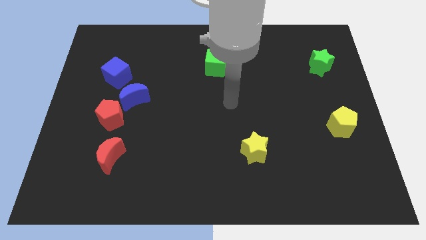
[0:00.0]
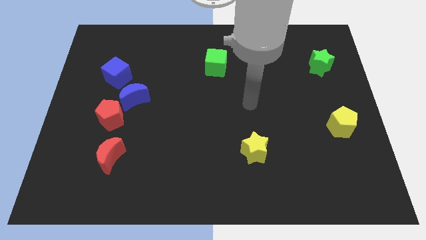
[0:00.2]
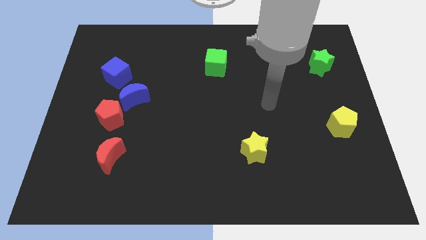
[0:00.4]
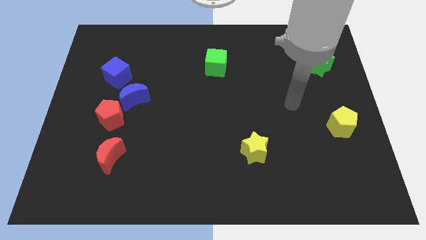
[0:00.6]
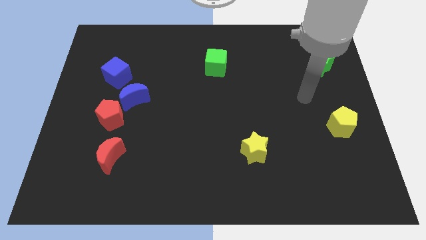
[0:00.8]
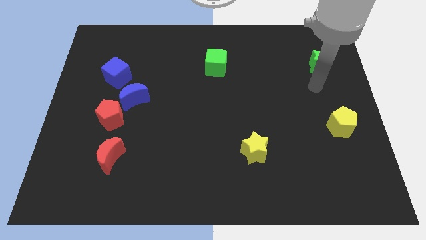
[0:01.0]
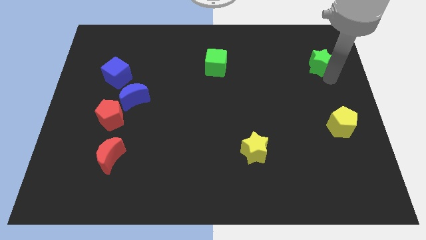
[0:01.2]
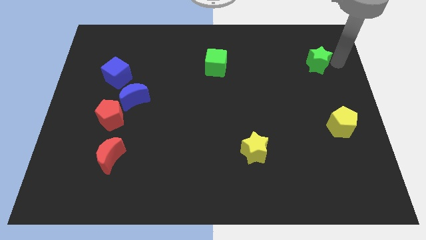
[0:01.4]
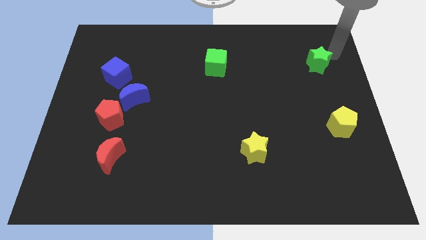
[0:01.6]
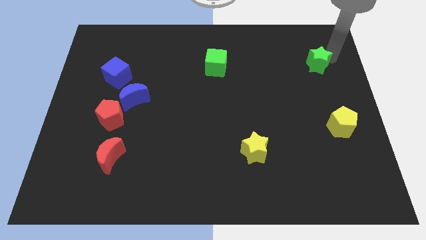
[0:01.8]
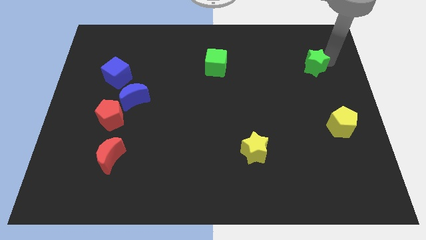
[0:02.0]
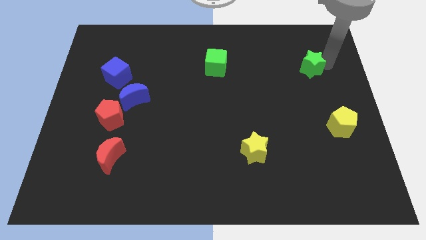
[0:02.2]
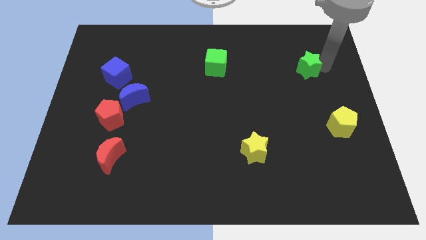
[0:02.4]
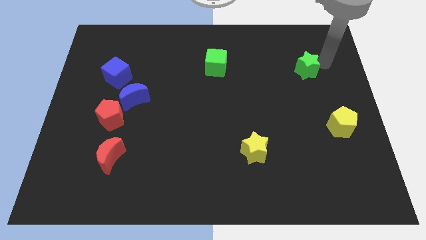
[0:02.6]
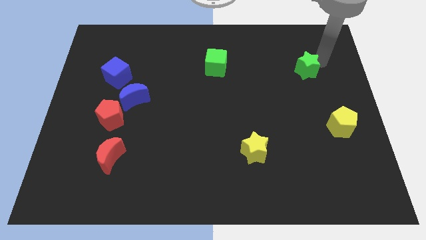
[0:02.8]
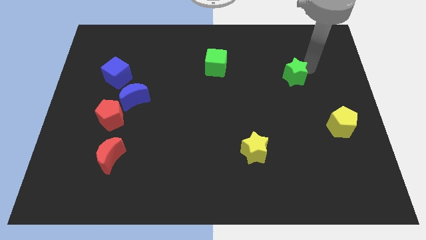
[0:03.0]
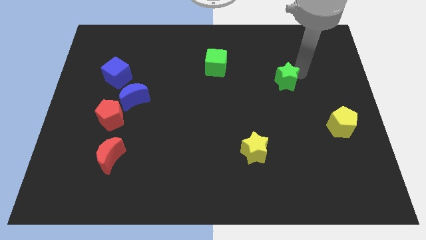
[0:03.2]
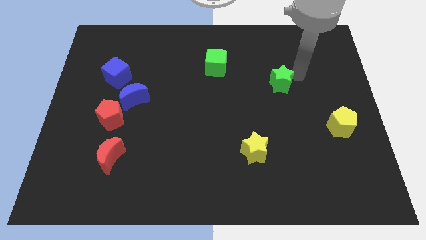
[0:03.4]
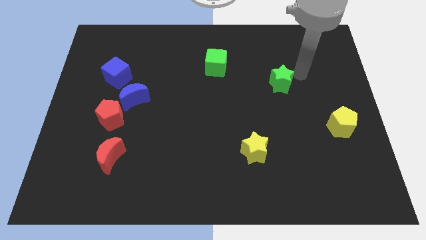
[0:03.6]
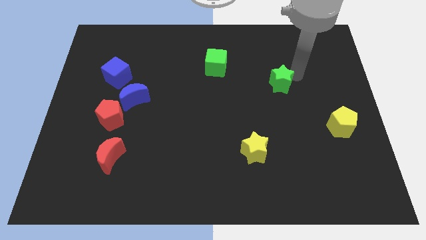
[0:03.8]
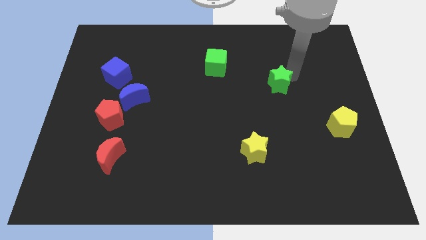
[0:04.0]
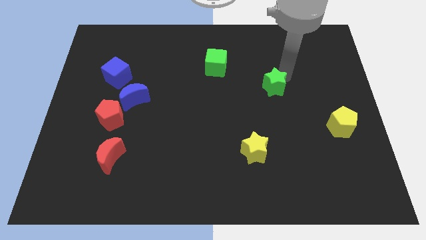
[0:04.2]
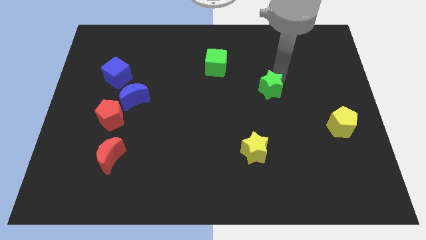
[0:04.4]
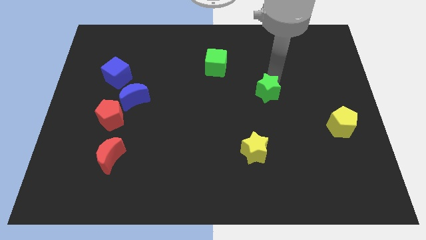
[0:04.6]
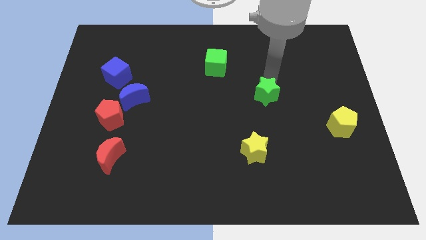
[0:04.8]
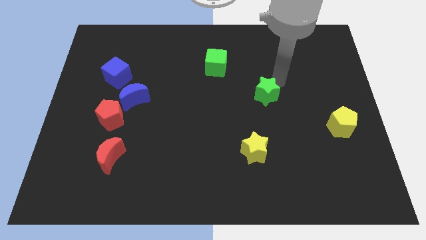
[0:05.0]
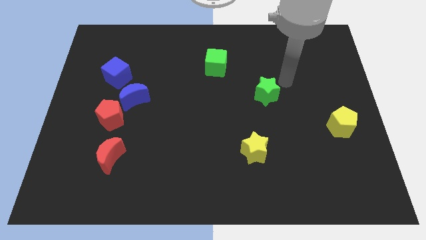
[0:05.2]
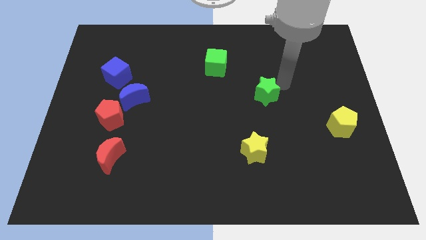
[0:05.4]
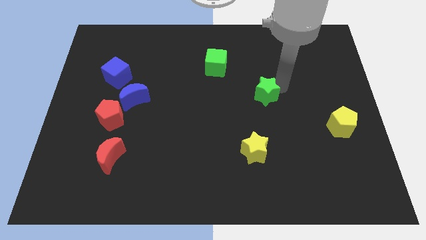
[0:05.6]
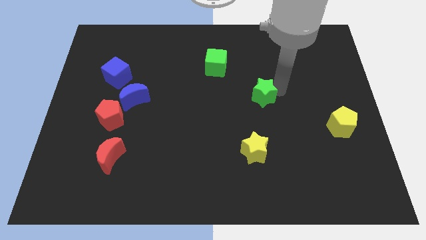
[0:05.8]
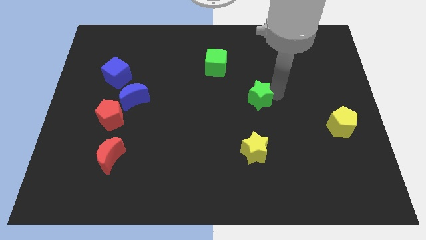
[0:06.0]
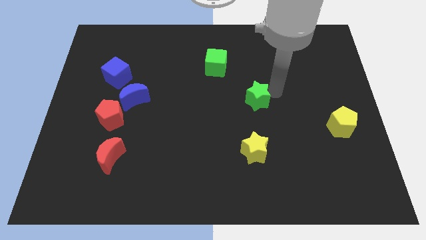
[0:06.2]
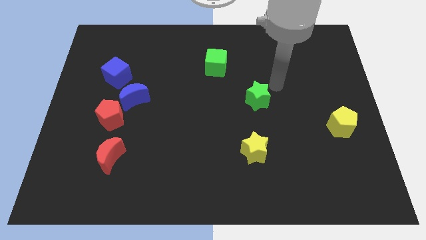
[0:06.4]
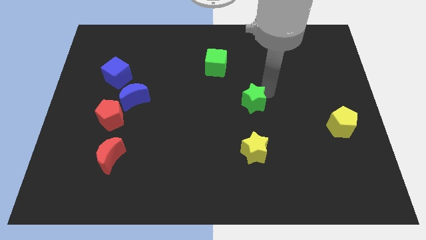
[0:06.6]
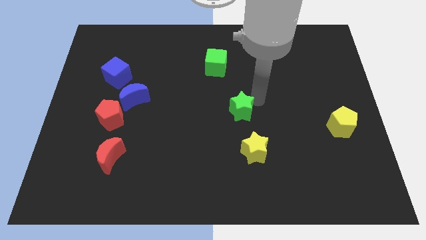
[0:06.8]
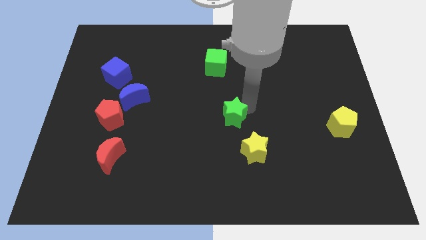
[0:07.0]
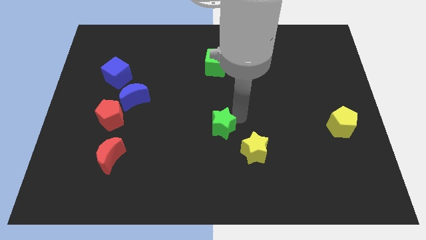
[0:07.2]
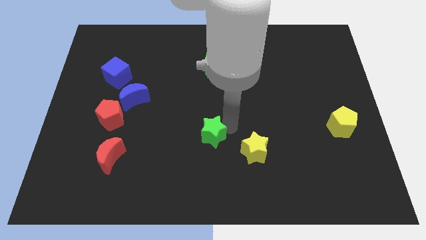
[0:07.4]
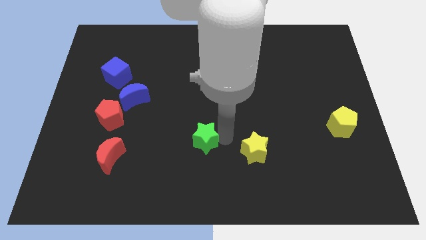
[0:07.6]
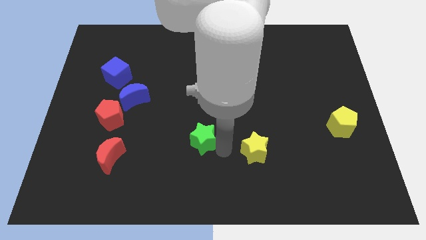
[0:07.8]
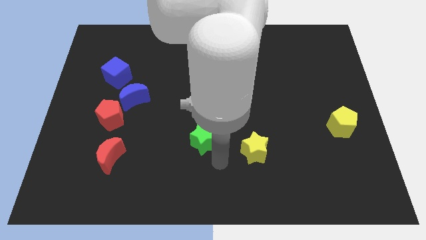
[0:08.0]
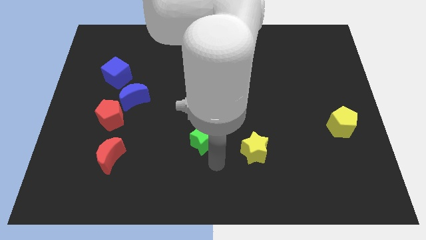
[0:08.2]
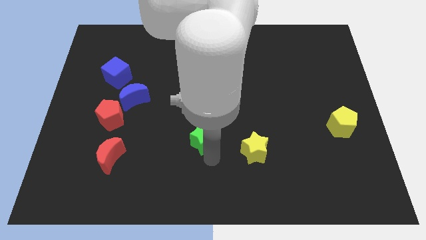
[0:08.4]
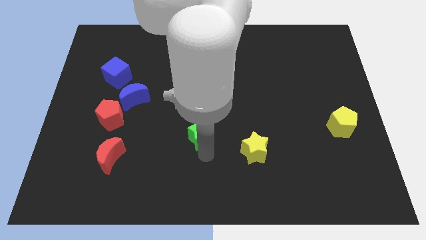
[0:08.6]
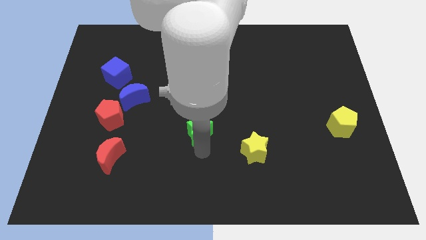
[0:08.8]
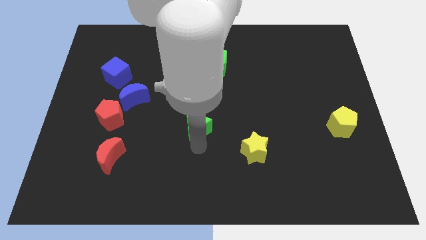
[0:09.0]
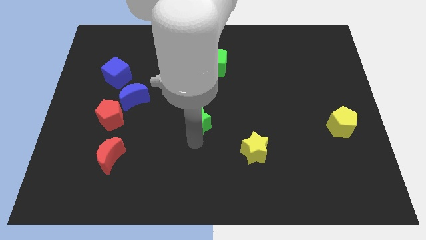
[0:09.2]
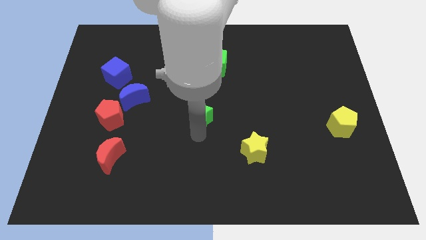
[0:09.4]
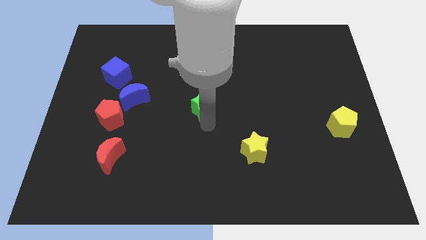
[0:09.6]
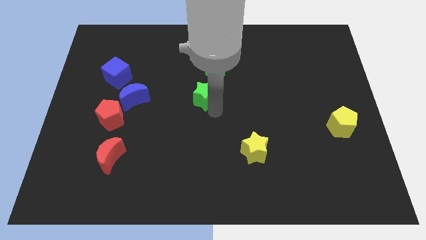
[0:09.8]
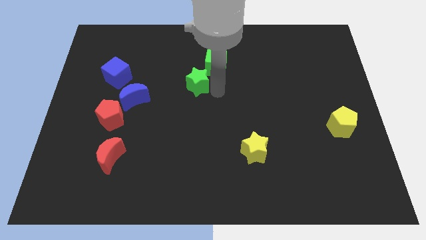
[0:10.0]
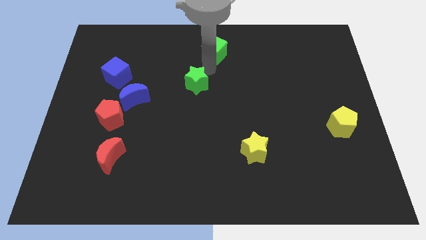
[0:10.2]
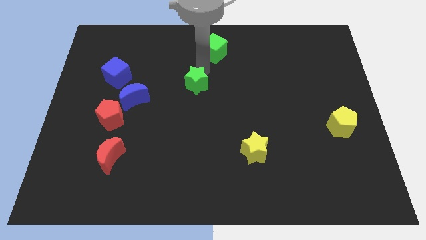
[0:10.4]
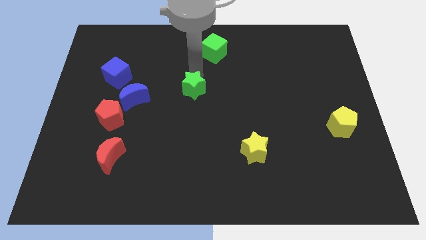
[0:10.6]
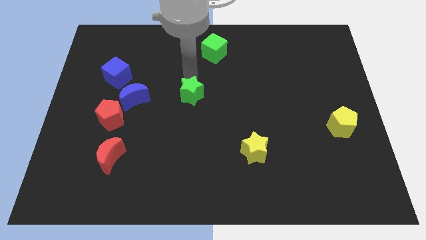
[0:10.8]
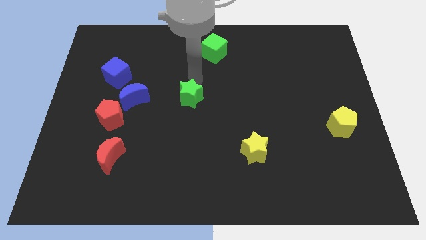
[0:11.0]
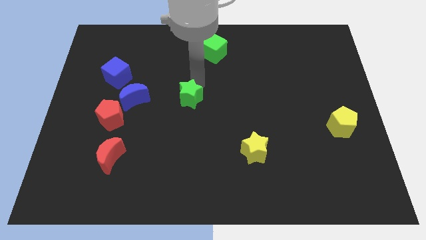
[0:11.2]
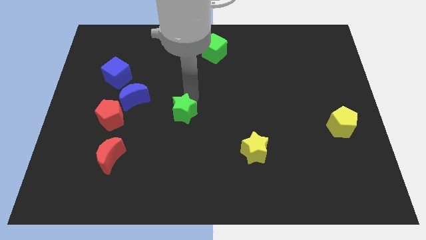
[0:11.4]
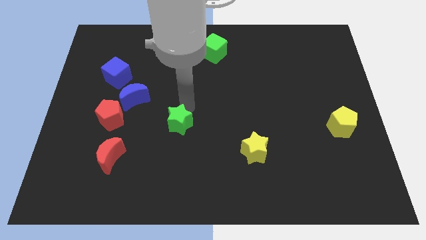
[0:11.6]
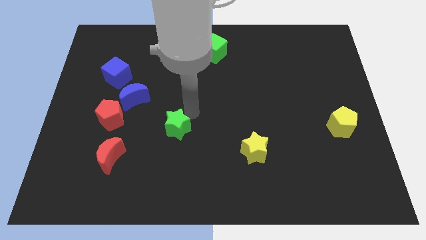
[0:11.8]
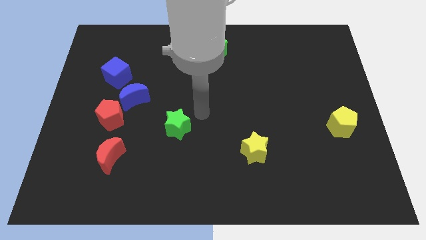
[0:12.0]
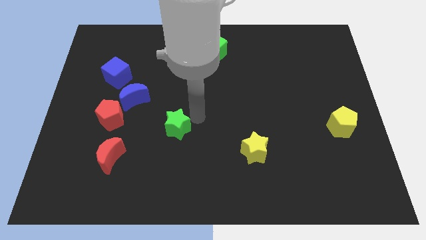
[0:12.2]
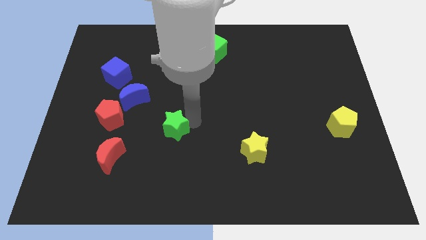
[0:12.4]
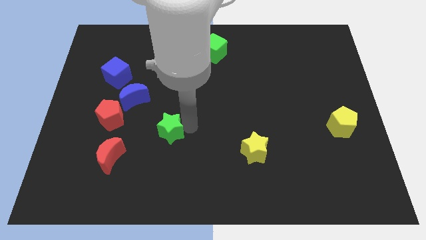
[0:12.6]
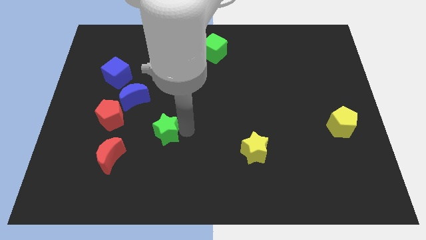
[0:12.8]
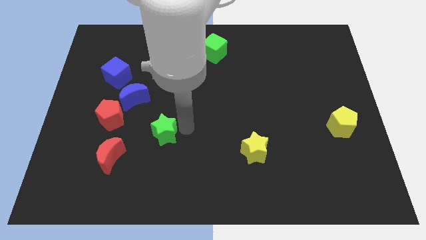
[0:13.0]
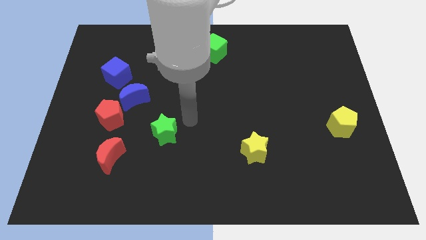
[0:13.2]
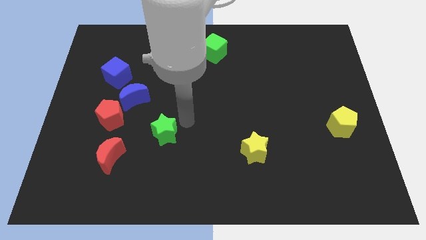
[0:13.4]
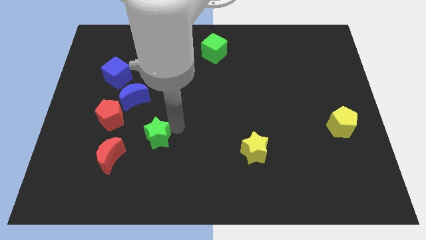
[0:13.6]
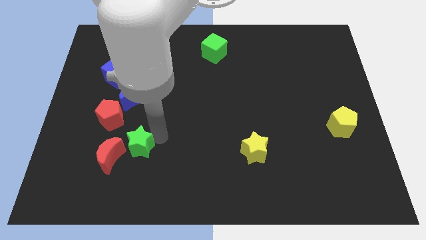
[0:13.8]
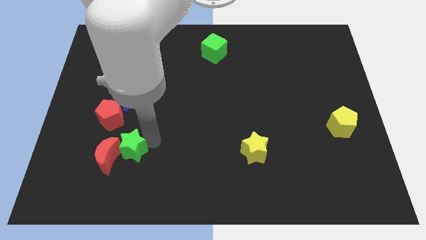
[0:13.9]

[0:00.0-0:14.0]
push the green star towards the red moon
